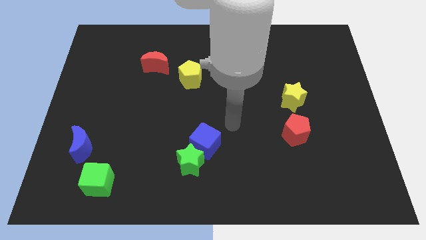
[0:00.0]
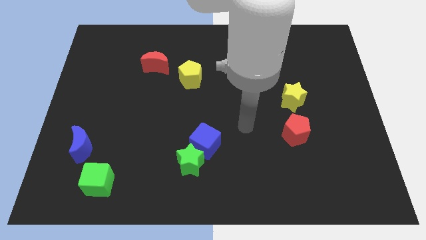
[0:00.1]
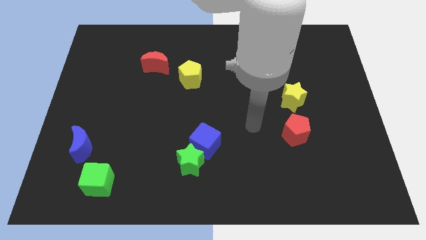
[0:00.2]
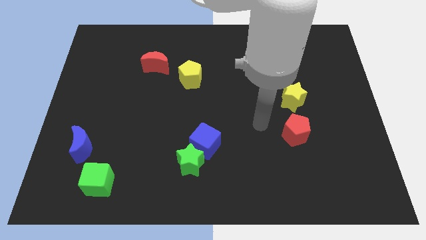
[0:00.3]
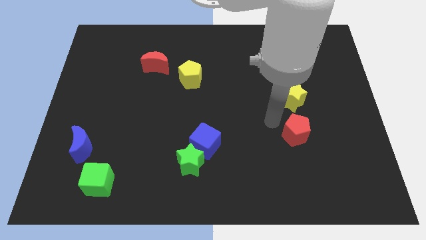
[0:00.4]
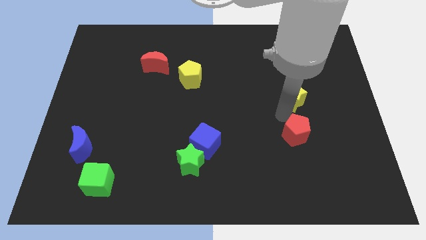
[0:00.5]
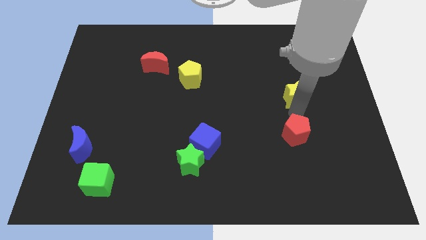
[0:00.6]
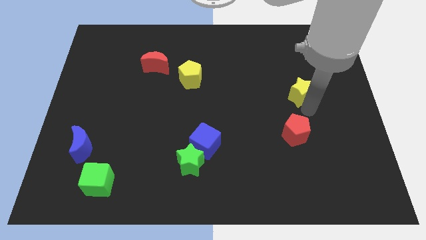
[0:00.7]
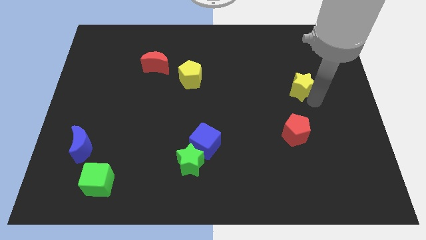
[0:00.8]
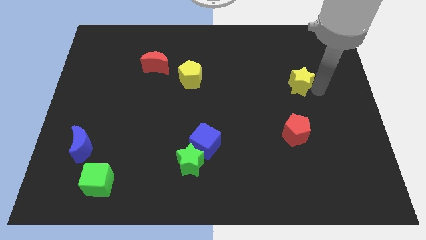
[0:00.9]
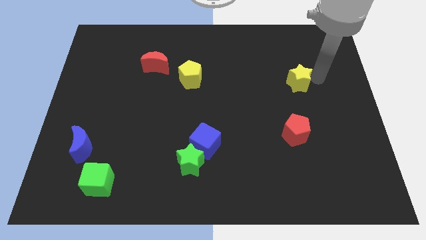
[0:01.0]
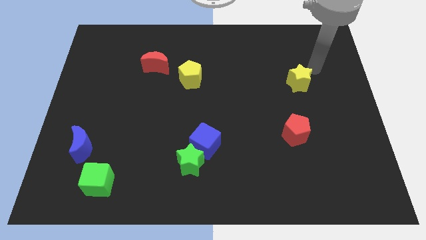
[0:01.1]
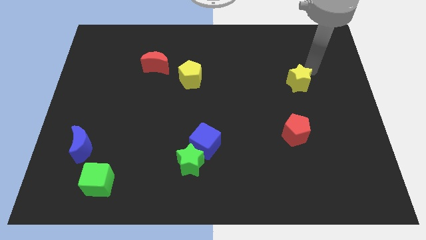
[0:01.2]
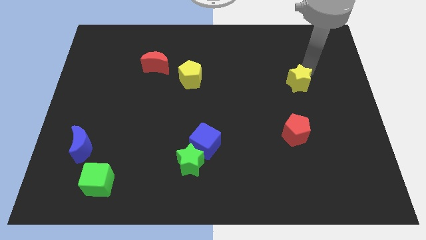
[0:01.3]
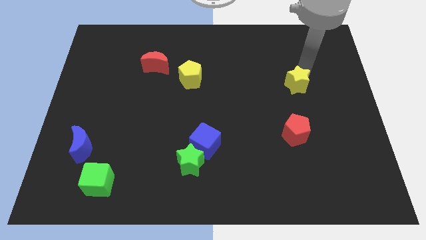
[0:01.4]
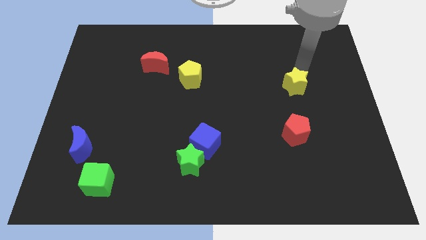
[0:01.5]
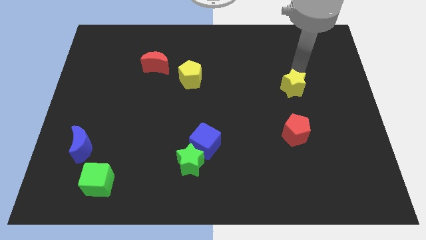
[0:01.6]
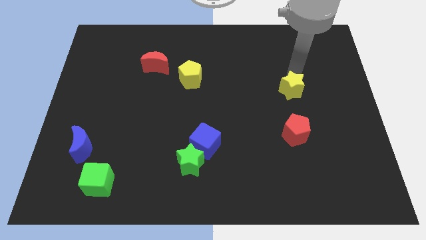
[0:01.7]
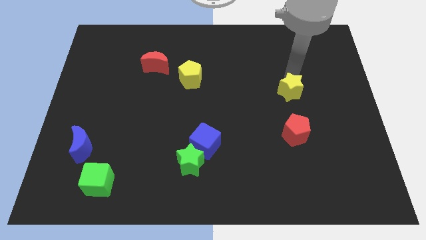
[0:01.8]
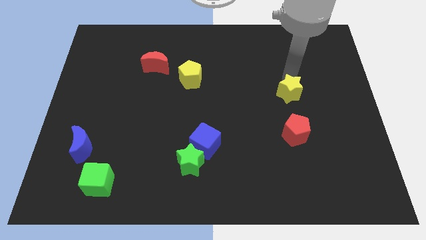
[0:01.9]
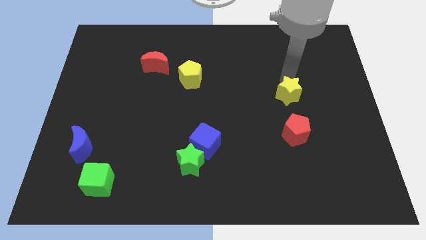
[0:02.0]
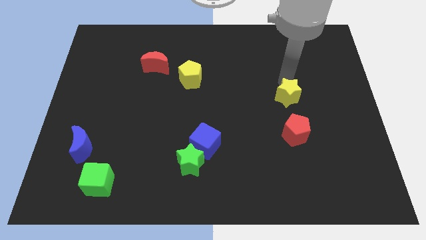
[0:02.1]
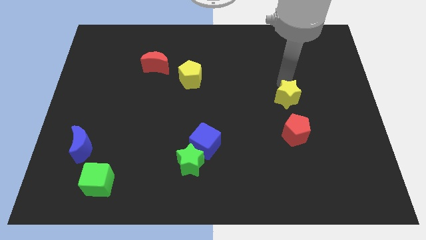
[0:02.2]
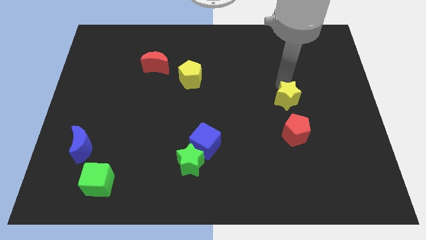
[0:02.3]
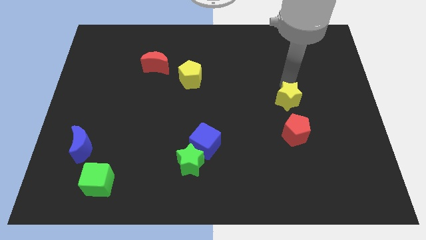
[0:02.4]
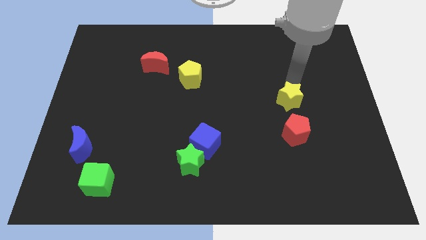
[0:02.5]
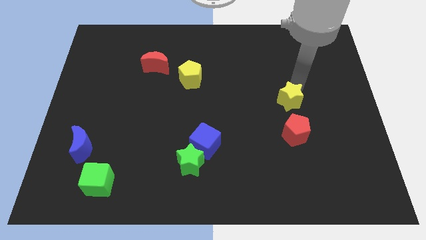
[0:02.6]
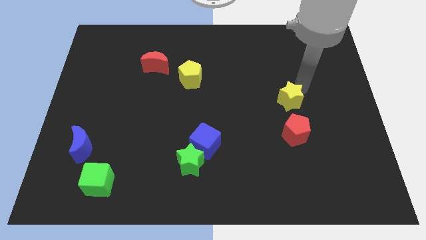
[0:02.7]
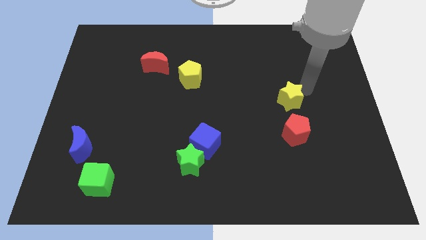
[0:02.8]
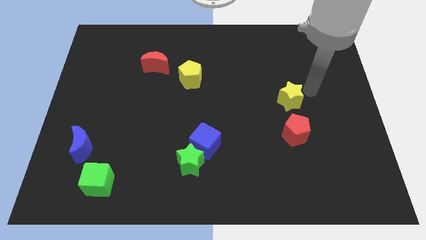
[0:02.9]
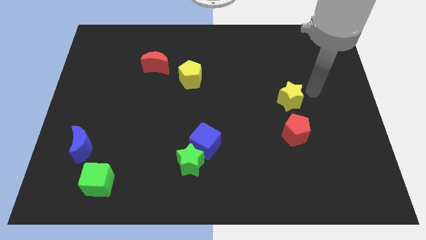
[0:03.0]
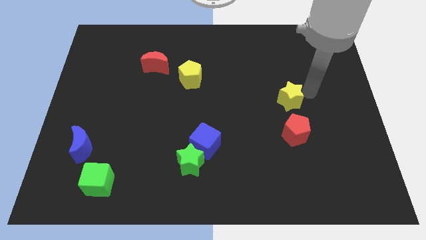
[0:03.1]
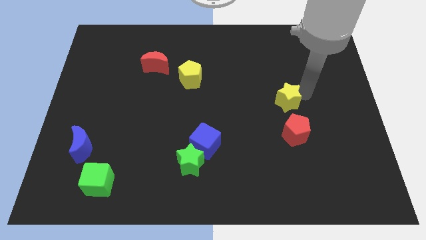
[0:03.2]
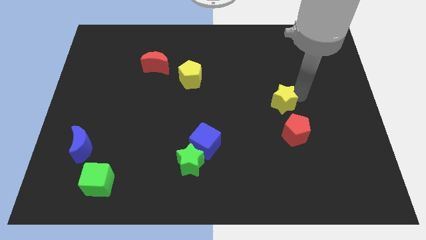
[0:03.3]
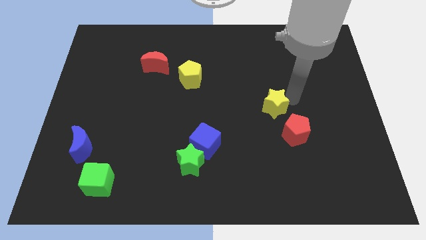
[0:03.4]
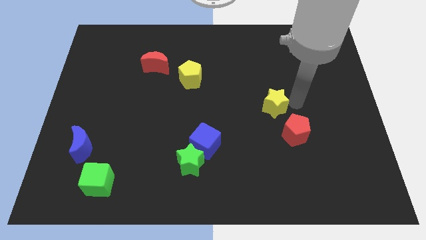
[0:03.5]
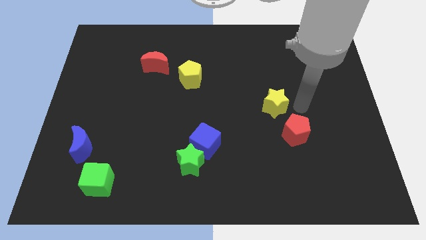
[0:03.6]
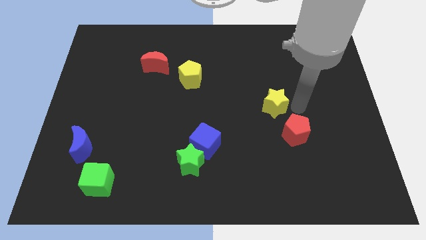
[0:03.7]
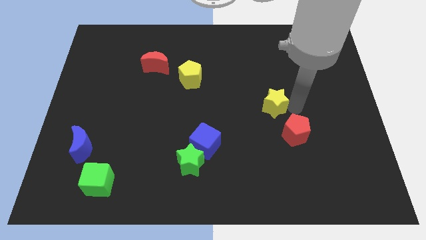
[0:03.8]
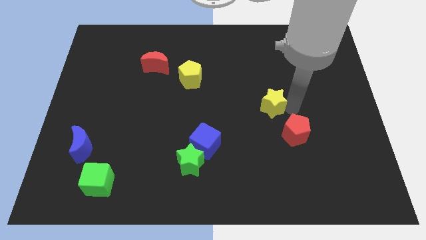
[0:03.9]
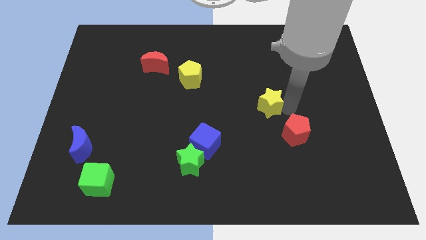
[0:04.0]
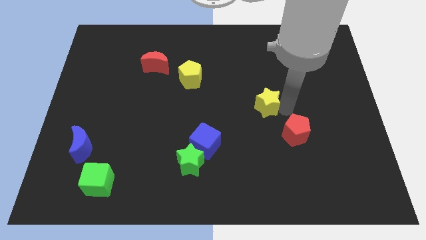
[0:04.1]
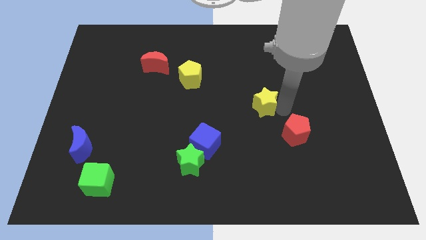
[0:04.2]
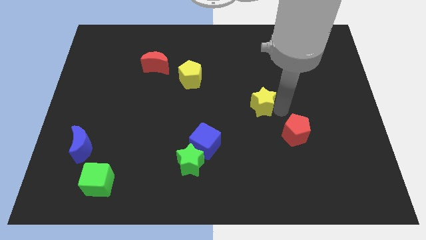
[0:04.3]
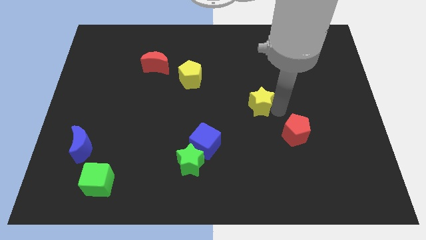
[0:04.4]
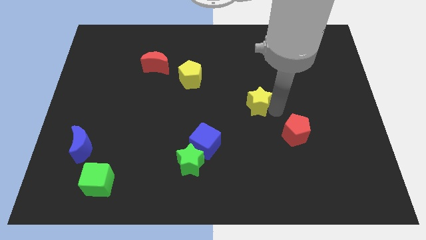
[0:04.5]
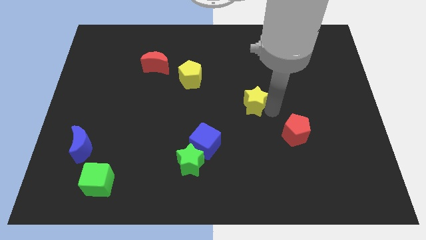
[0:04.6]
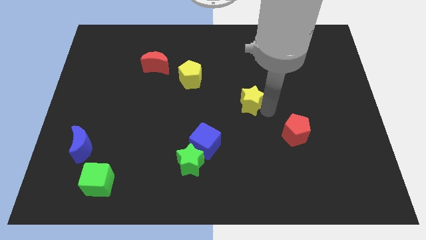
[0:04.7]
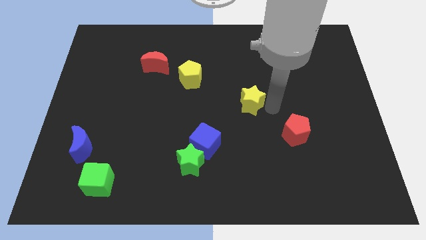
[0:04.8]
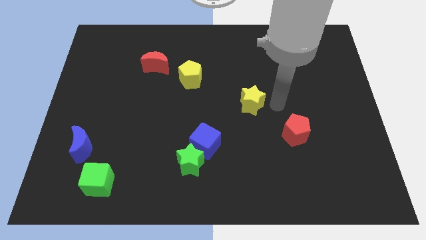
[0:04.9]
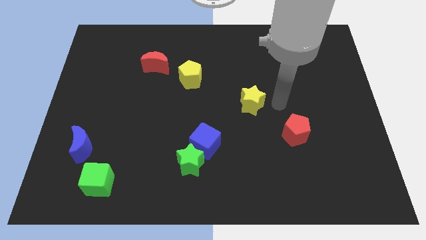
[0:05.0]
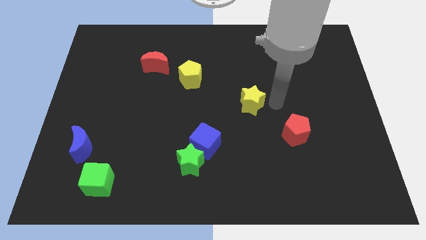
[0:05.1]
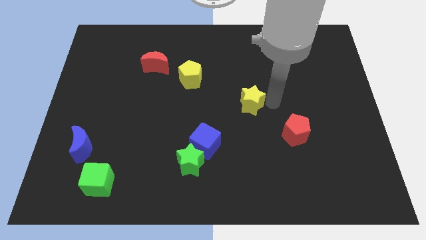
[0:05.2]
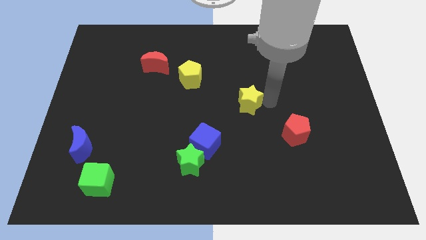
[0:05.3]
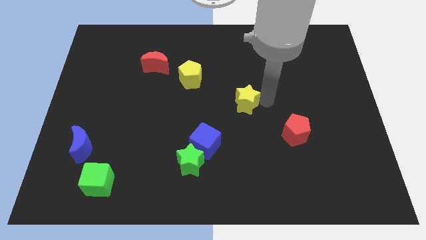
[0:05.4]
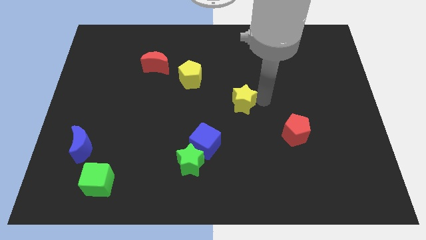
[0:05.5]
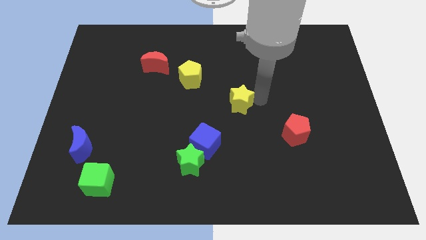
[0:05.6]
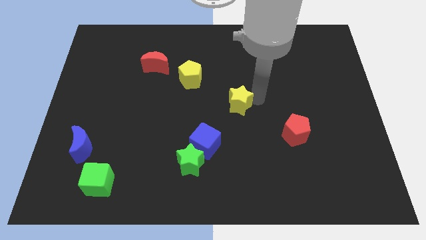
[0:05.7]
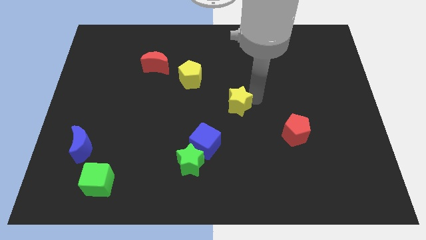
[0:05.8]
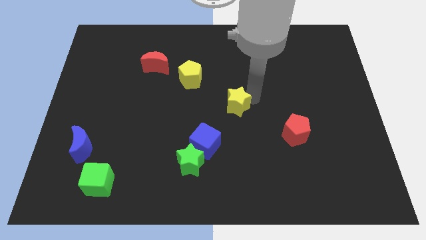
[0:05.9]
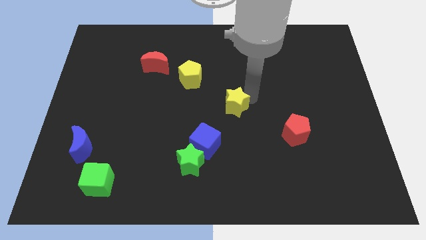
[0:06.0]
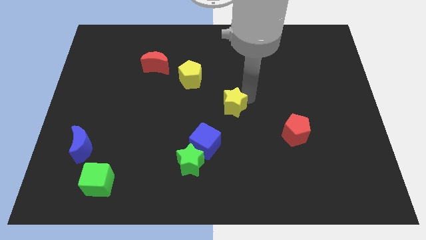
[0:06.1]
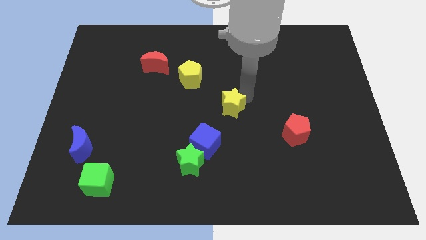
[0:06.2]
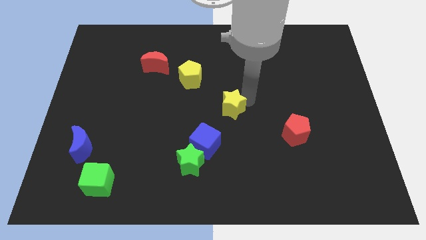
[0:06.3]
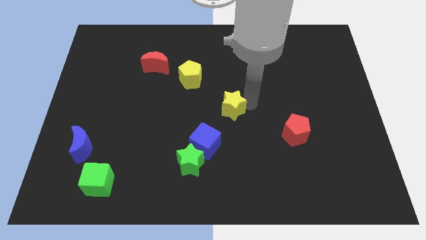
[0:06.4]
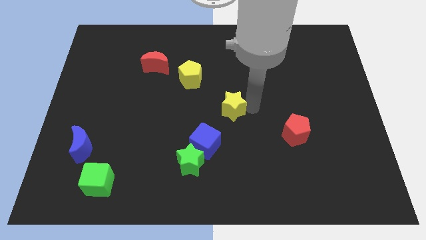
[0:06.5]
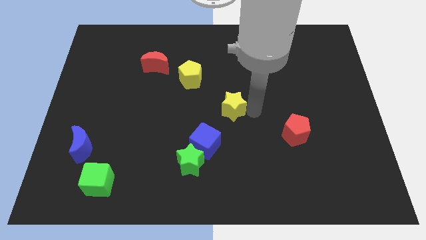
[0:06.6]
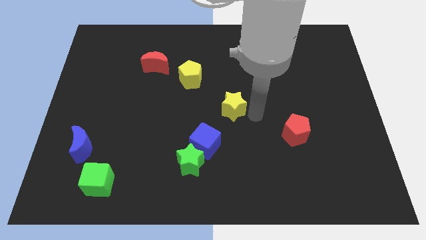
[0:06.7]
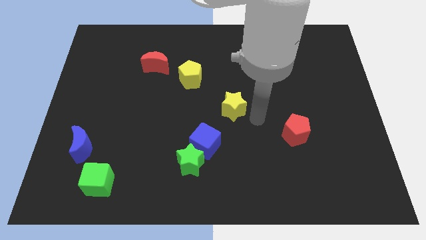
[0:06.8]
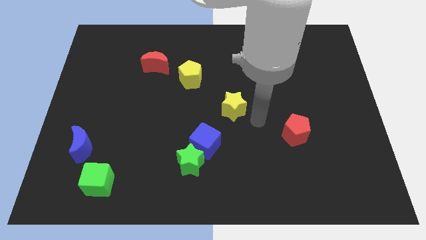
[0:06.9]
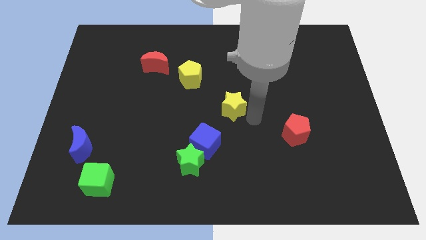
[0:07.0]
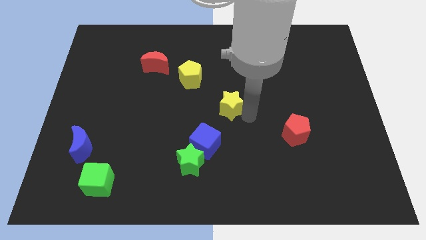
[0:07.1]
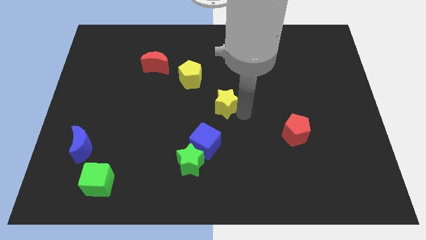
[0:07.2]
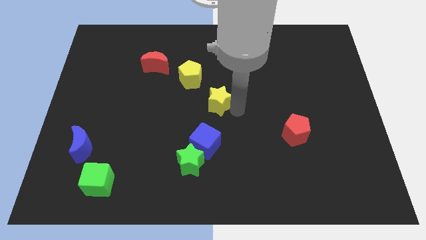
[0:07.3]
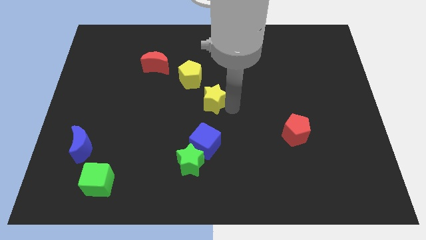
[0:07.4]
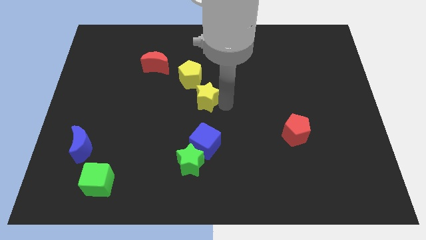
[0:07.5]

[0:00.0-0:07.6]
move the yellow star to the left

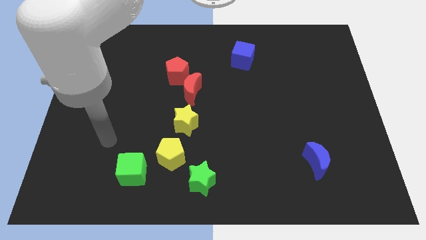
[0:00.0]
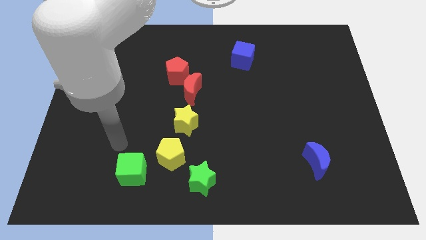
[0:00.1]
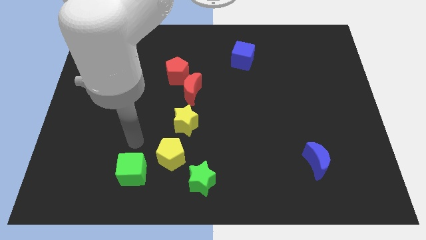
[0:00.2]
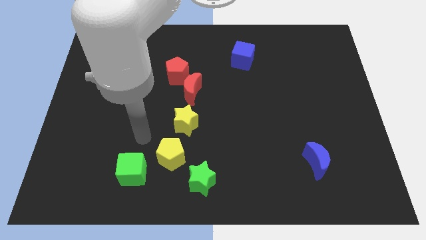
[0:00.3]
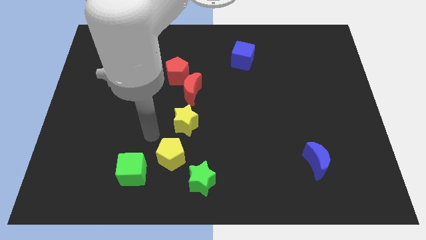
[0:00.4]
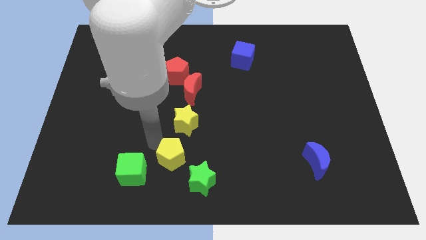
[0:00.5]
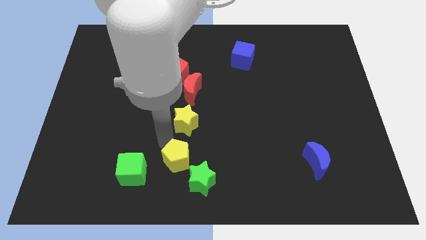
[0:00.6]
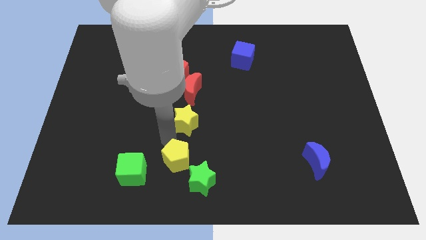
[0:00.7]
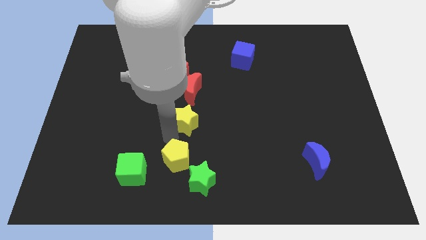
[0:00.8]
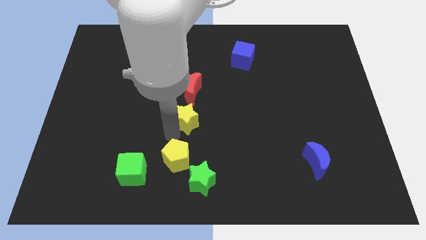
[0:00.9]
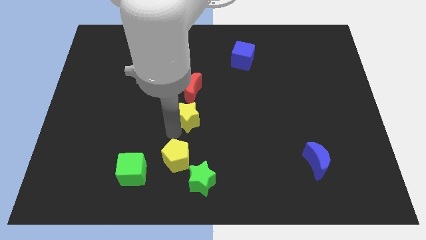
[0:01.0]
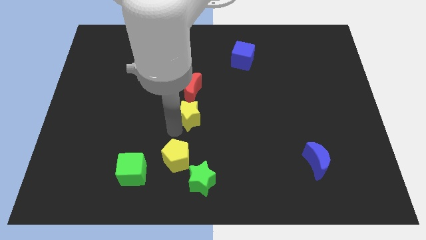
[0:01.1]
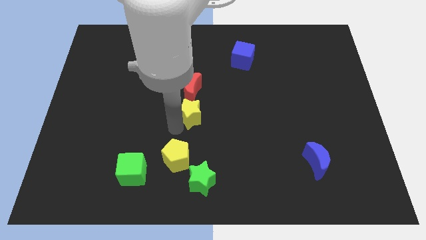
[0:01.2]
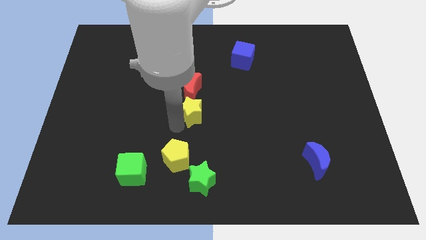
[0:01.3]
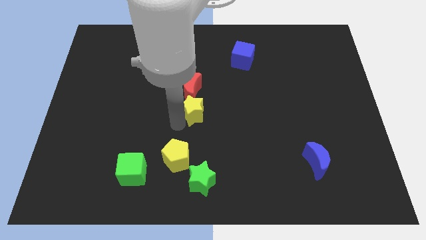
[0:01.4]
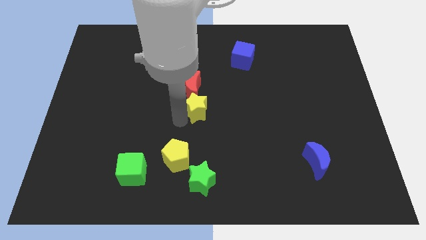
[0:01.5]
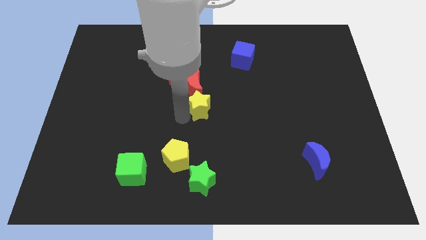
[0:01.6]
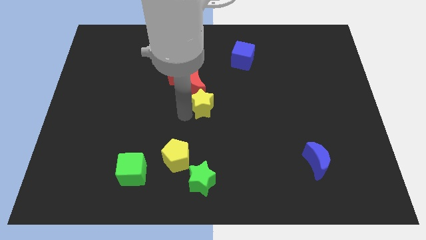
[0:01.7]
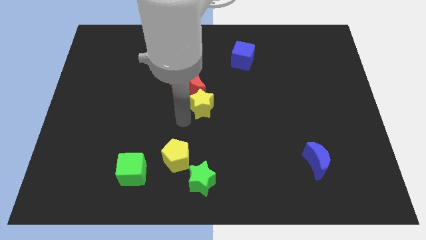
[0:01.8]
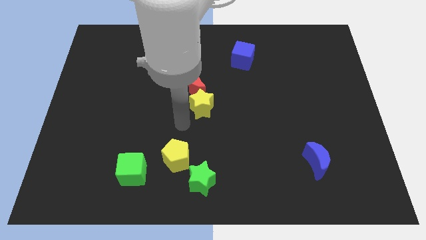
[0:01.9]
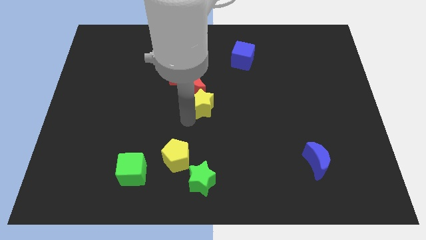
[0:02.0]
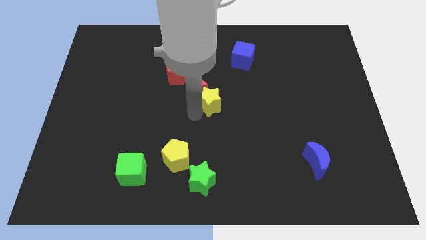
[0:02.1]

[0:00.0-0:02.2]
slightly move the yellow star upwards and then to the right
